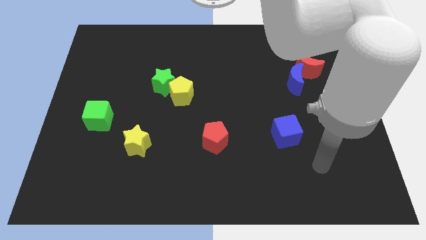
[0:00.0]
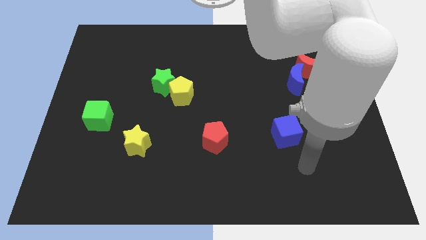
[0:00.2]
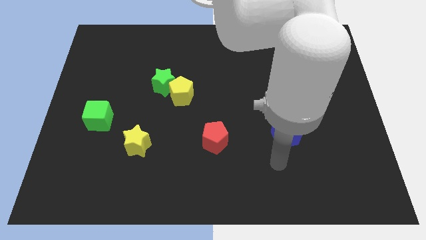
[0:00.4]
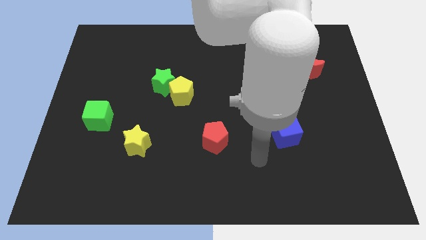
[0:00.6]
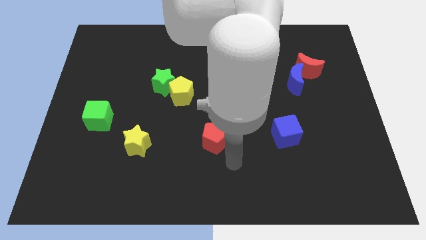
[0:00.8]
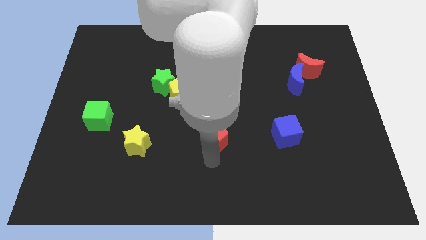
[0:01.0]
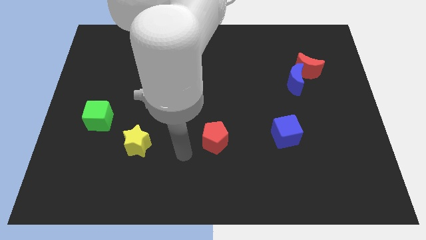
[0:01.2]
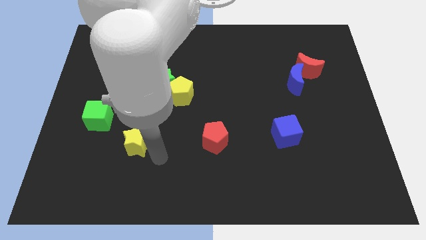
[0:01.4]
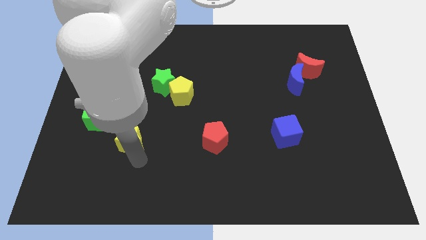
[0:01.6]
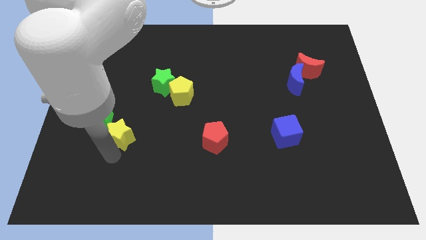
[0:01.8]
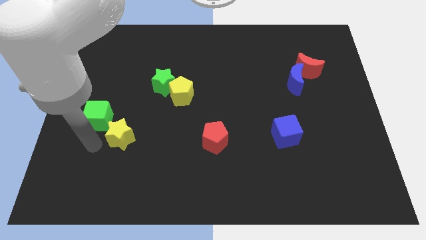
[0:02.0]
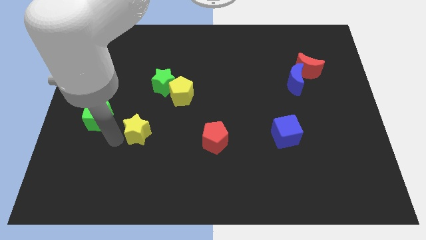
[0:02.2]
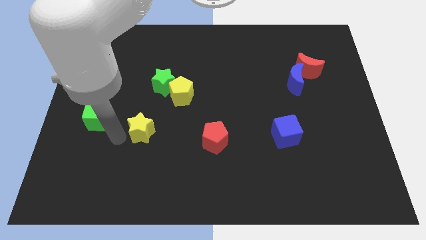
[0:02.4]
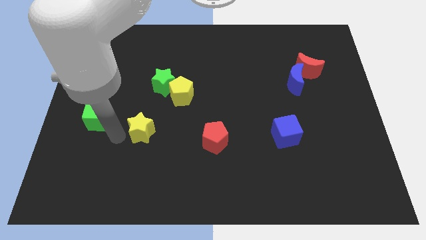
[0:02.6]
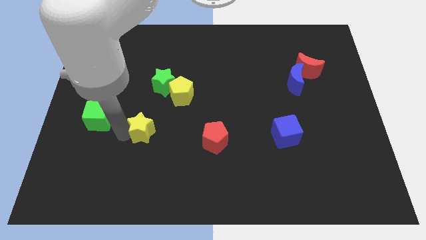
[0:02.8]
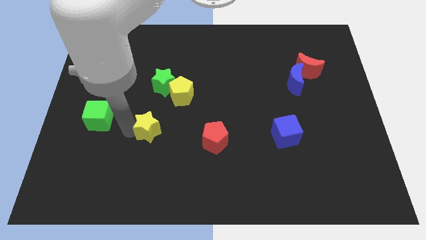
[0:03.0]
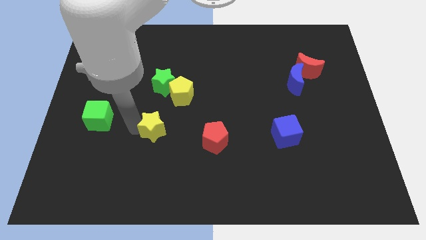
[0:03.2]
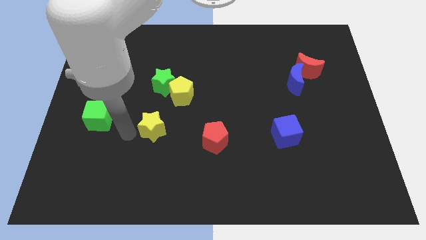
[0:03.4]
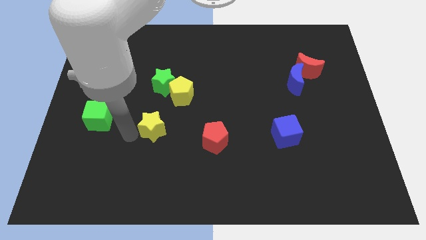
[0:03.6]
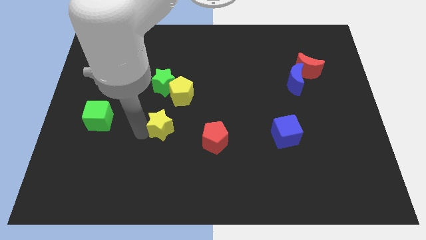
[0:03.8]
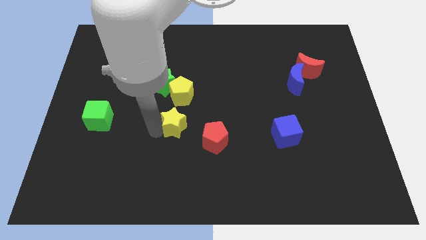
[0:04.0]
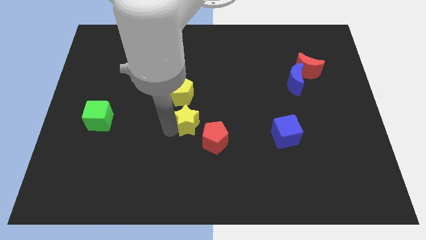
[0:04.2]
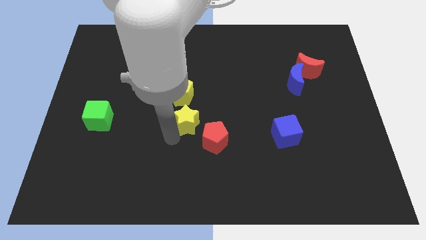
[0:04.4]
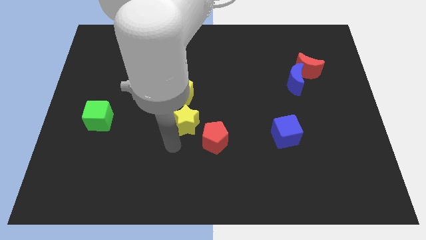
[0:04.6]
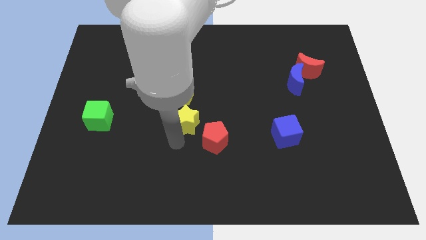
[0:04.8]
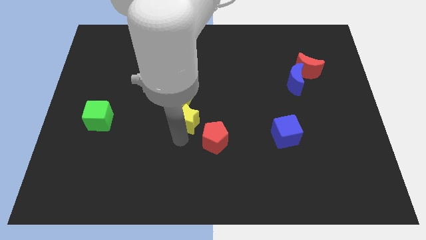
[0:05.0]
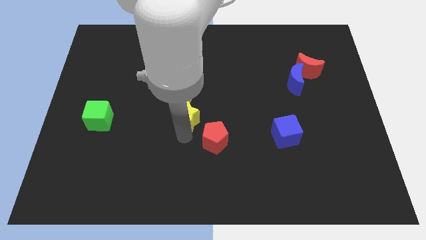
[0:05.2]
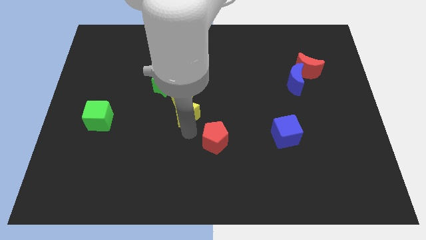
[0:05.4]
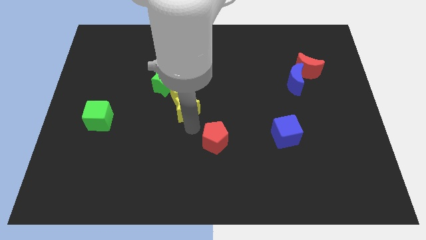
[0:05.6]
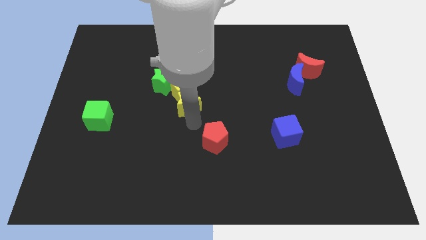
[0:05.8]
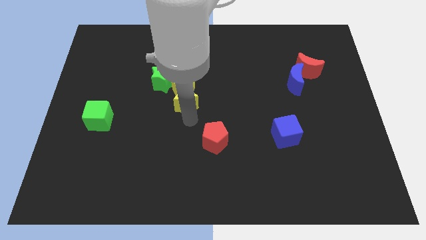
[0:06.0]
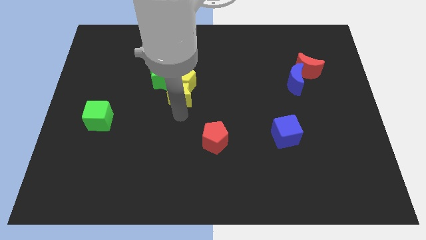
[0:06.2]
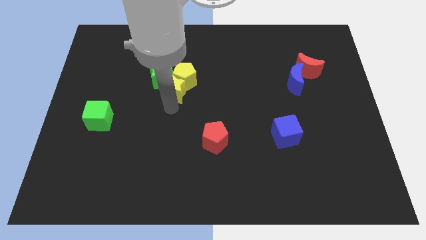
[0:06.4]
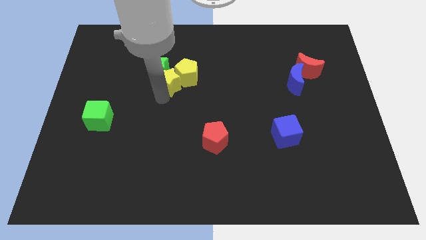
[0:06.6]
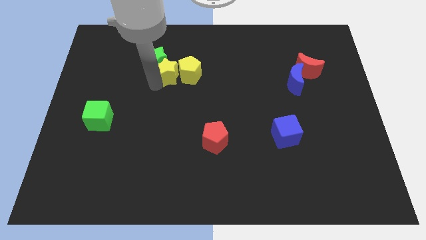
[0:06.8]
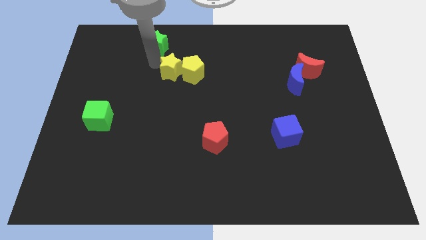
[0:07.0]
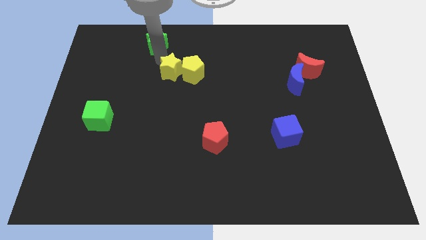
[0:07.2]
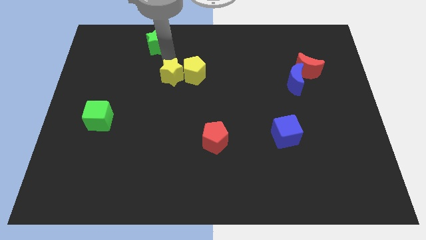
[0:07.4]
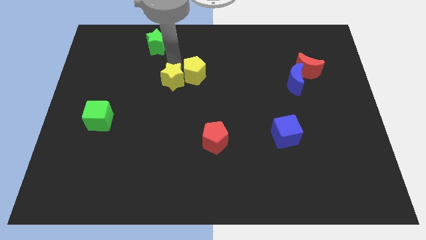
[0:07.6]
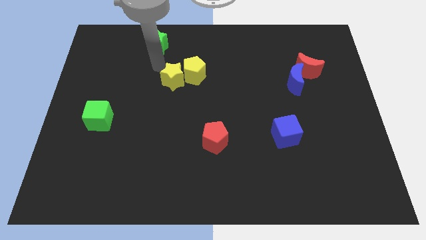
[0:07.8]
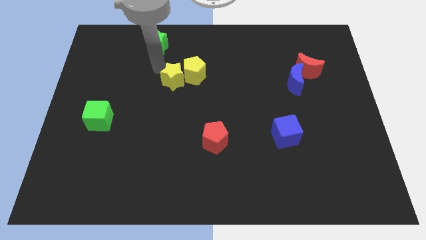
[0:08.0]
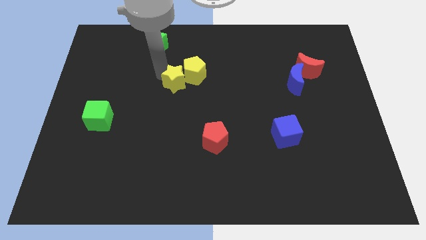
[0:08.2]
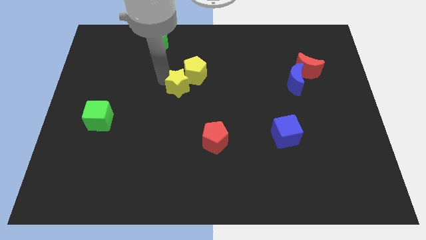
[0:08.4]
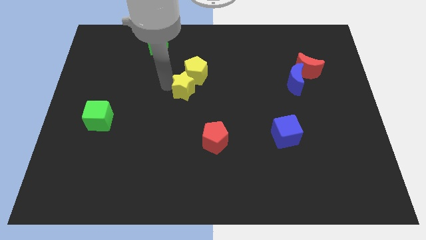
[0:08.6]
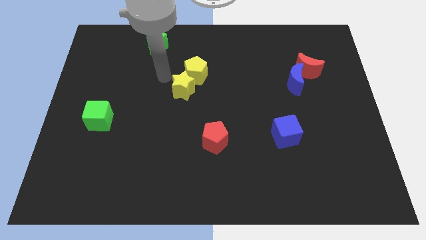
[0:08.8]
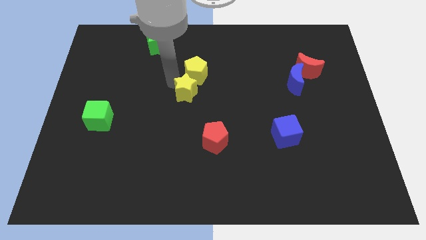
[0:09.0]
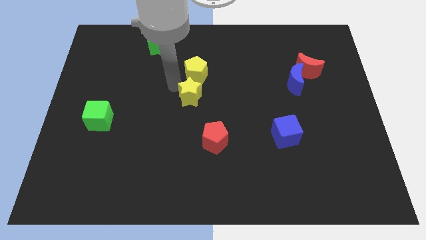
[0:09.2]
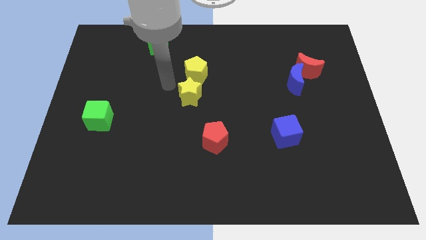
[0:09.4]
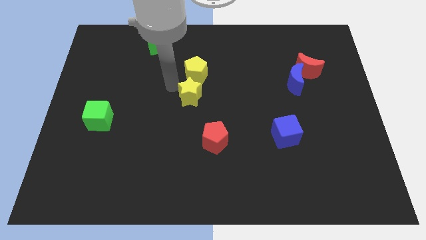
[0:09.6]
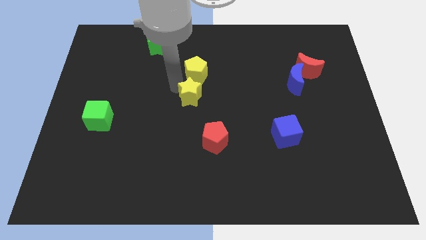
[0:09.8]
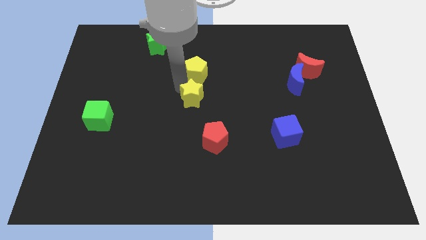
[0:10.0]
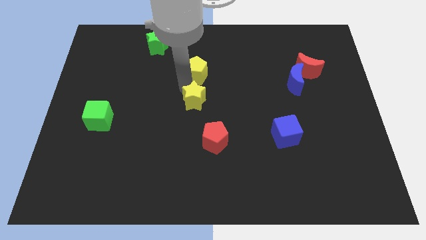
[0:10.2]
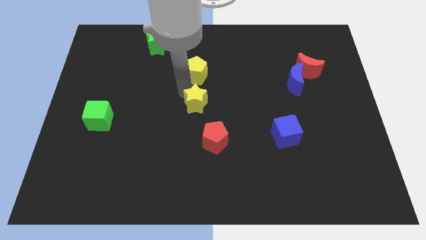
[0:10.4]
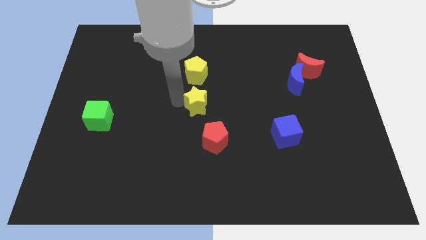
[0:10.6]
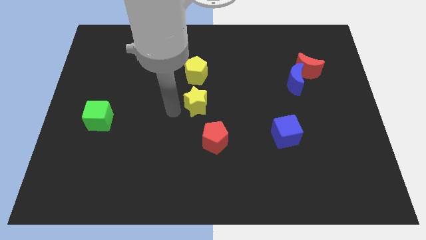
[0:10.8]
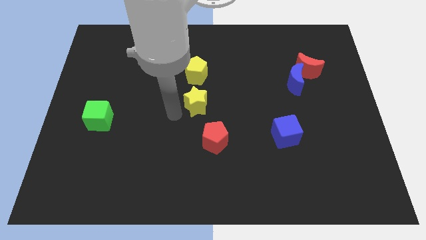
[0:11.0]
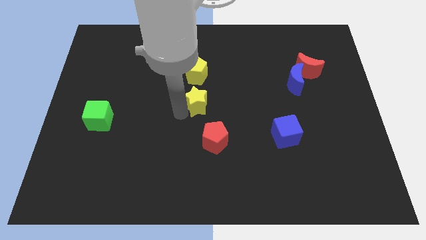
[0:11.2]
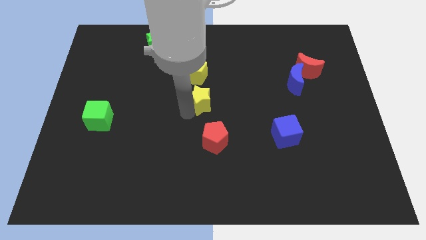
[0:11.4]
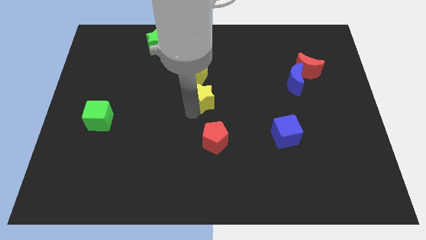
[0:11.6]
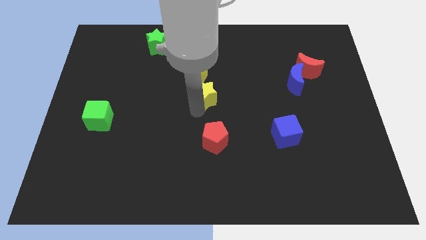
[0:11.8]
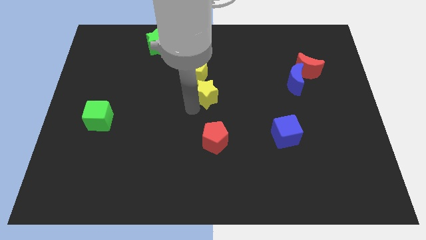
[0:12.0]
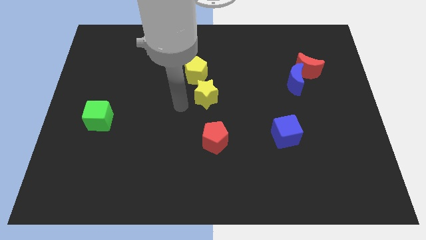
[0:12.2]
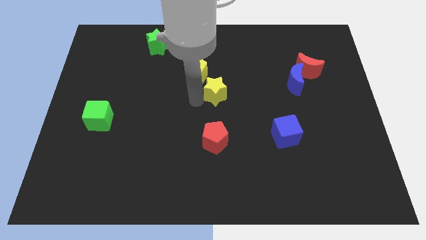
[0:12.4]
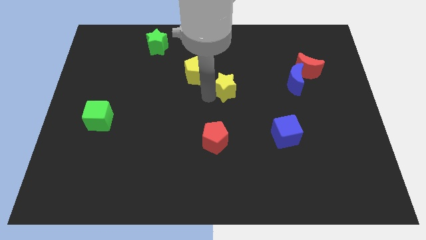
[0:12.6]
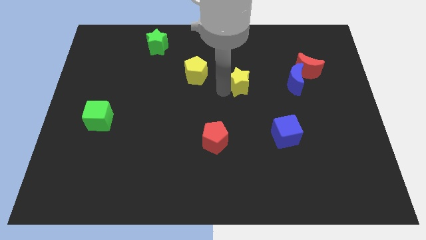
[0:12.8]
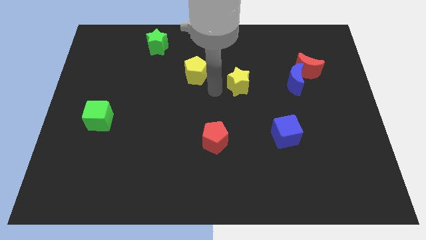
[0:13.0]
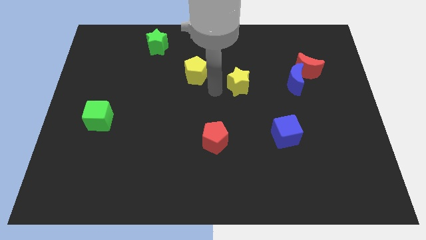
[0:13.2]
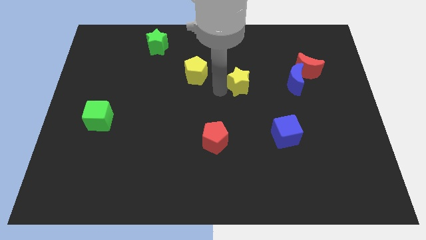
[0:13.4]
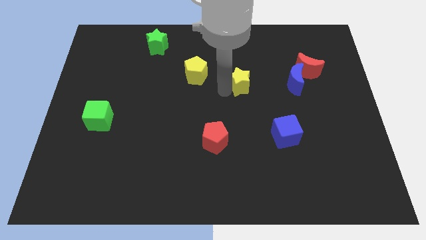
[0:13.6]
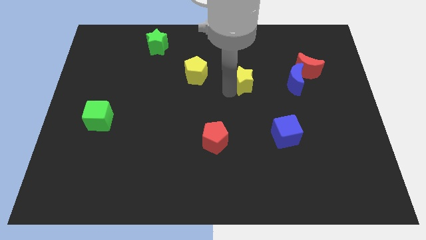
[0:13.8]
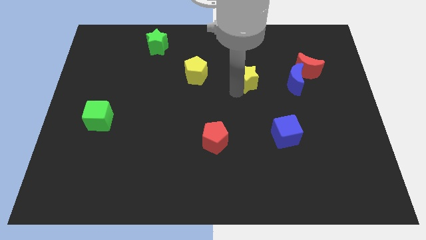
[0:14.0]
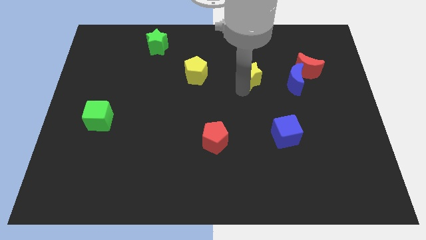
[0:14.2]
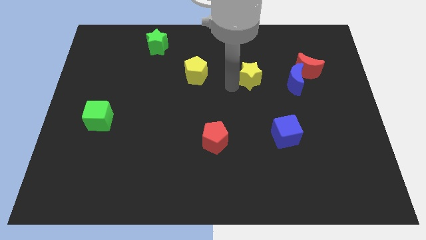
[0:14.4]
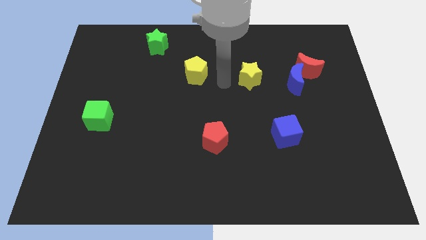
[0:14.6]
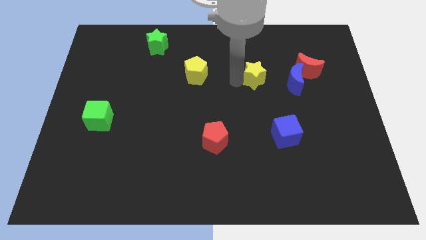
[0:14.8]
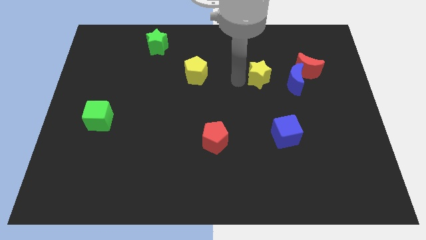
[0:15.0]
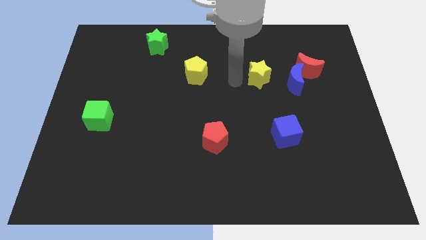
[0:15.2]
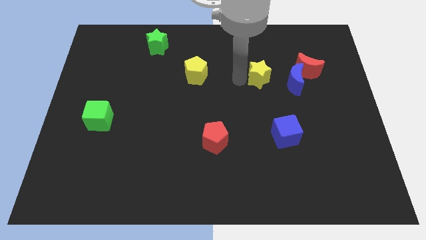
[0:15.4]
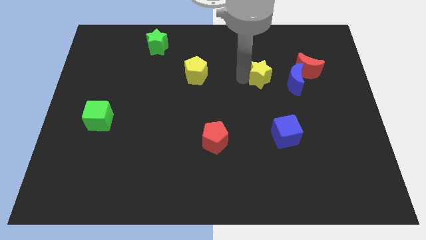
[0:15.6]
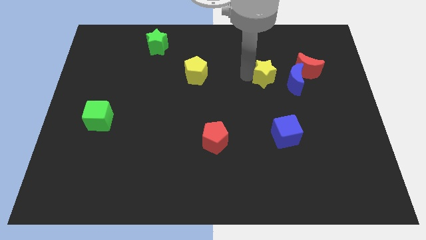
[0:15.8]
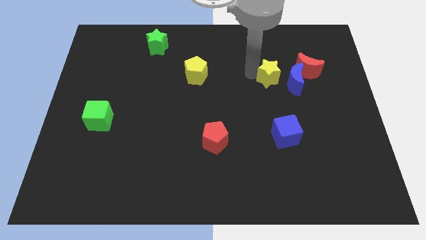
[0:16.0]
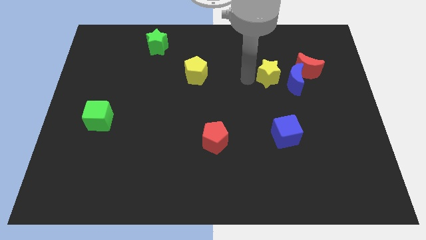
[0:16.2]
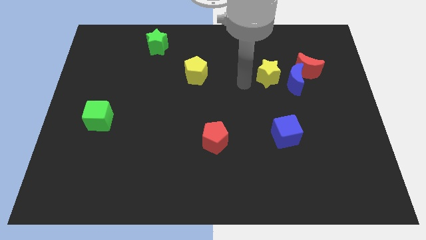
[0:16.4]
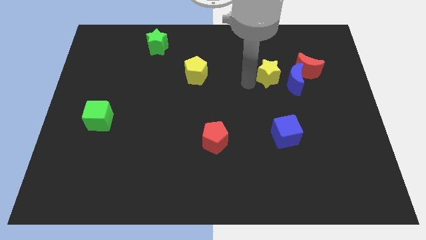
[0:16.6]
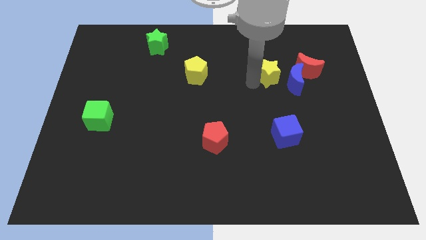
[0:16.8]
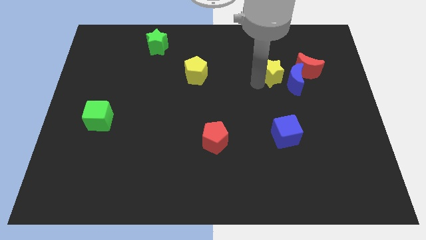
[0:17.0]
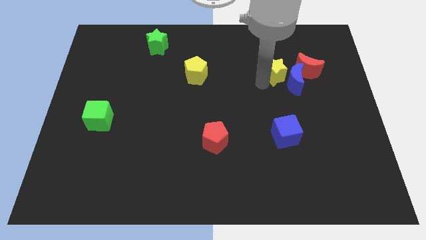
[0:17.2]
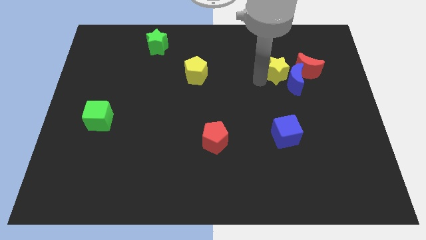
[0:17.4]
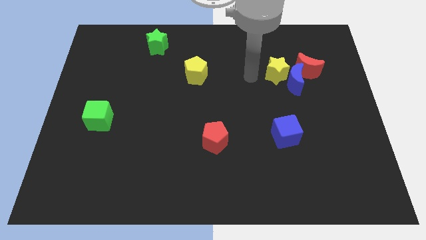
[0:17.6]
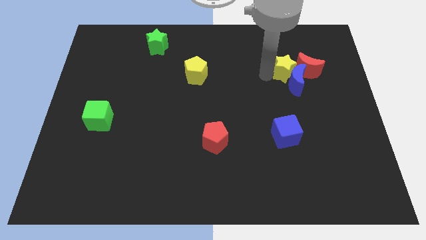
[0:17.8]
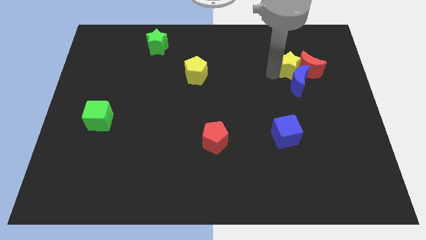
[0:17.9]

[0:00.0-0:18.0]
push the yellow star close to the red moon
